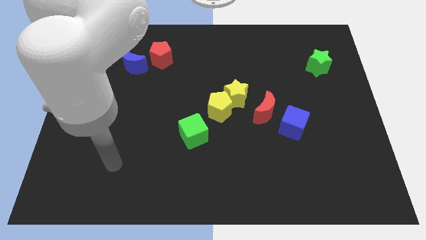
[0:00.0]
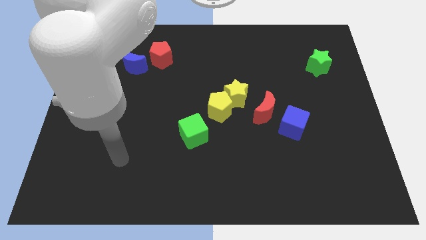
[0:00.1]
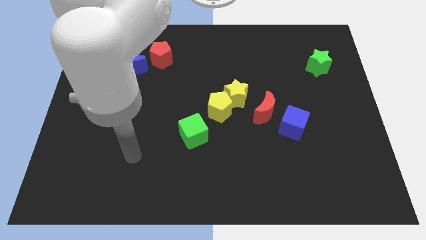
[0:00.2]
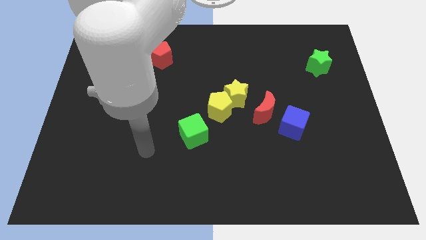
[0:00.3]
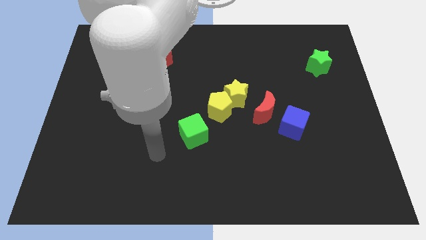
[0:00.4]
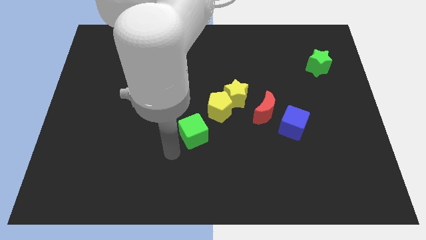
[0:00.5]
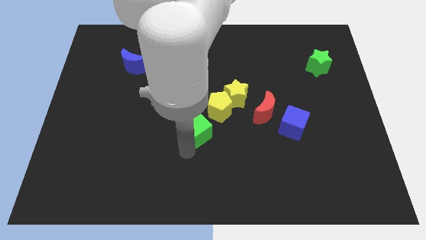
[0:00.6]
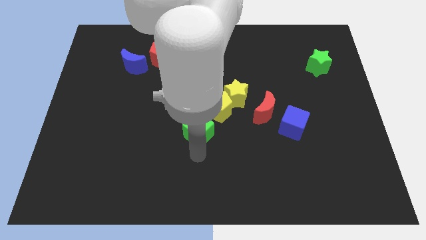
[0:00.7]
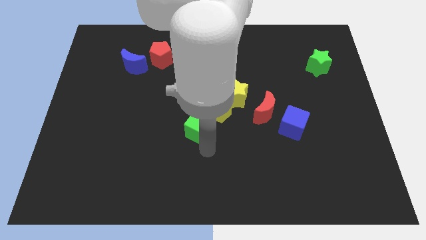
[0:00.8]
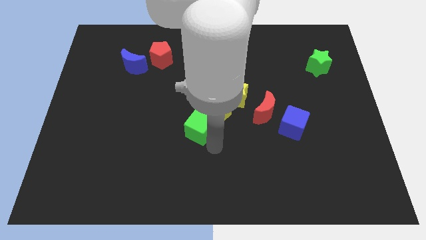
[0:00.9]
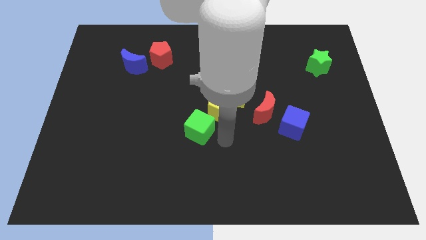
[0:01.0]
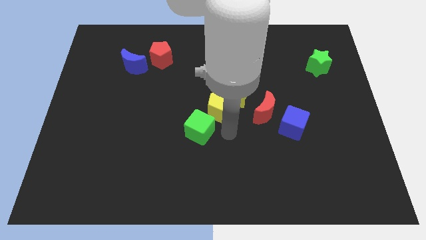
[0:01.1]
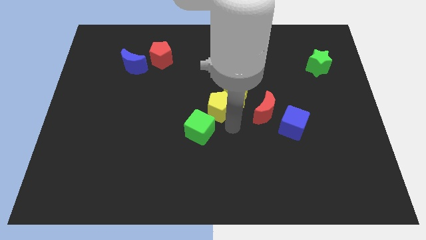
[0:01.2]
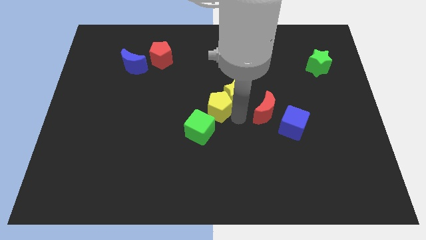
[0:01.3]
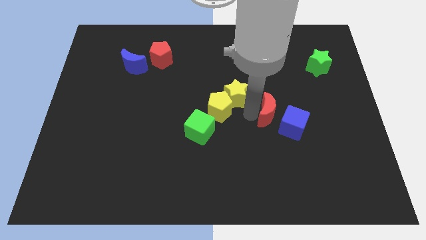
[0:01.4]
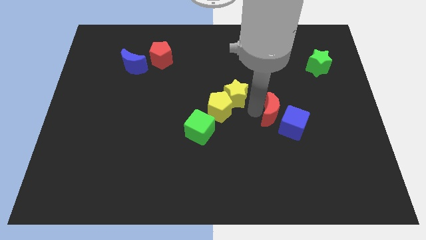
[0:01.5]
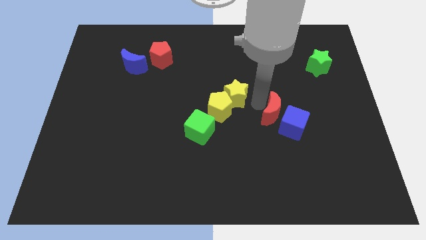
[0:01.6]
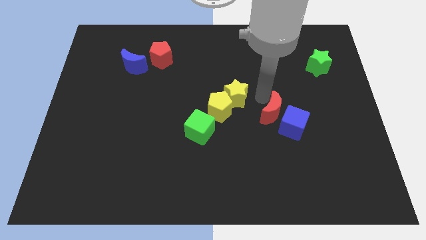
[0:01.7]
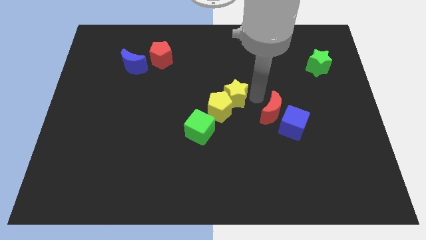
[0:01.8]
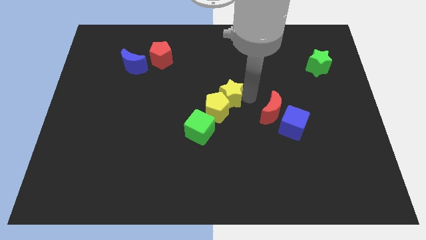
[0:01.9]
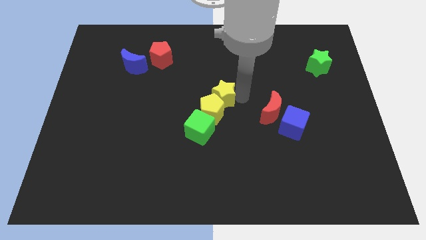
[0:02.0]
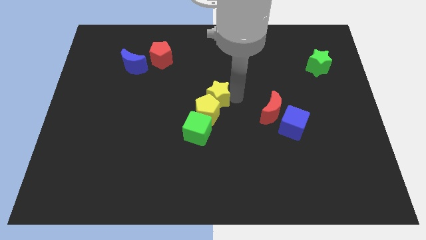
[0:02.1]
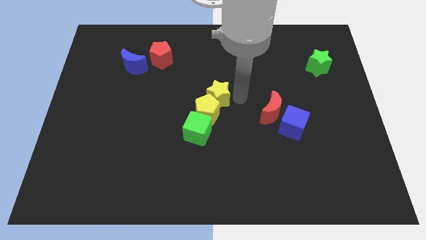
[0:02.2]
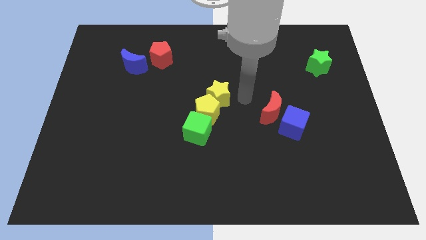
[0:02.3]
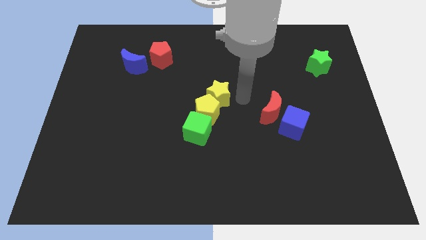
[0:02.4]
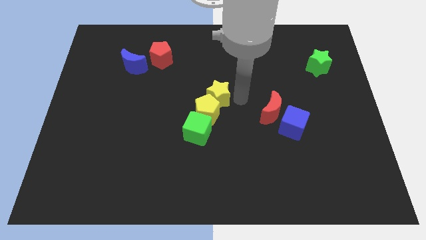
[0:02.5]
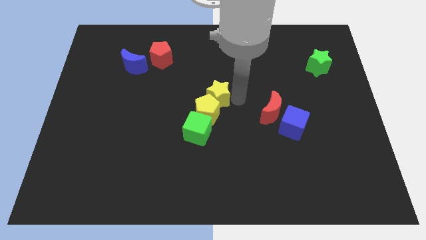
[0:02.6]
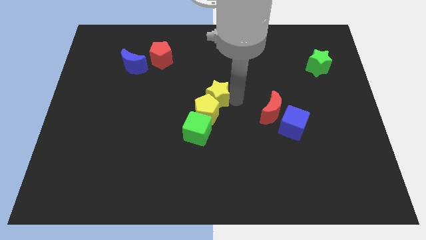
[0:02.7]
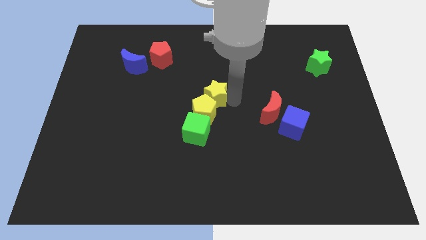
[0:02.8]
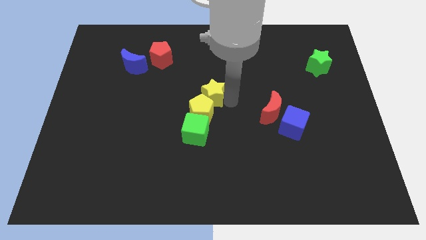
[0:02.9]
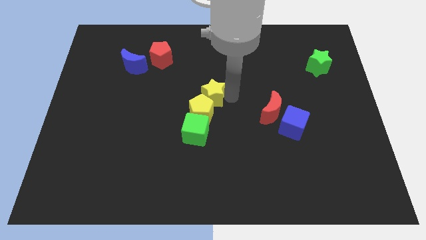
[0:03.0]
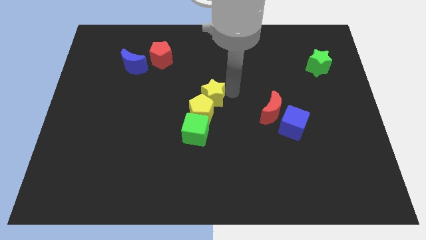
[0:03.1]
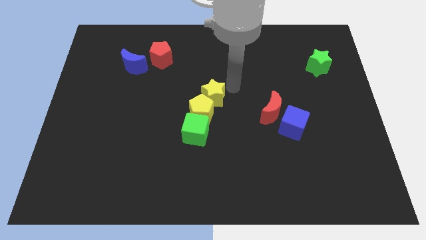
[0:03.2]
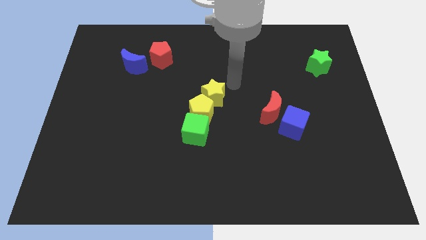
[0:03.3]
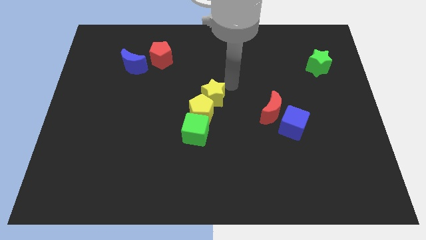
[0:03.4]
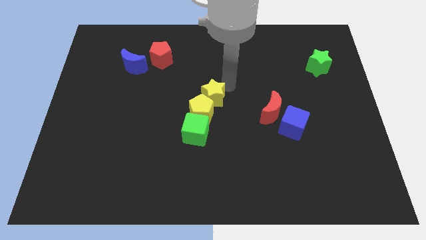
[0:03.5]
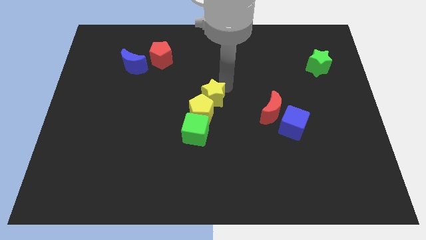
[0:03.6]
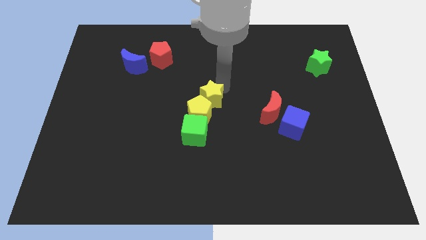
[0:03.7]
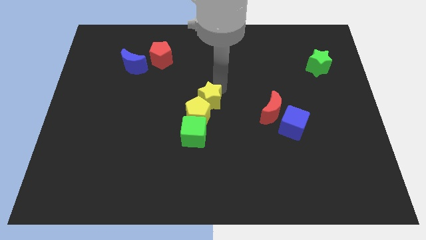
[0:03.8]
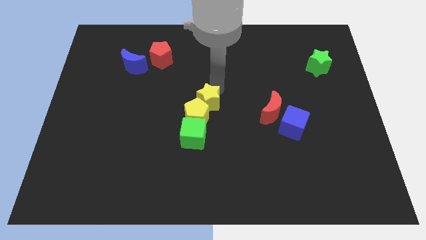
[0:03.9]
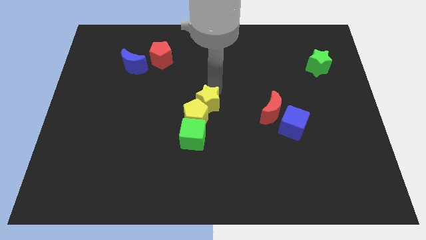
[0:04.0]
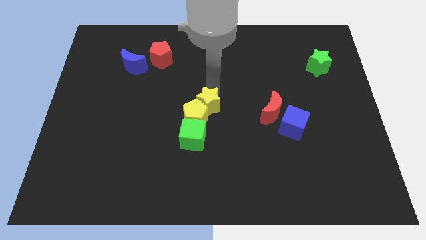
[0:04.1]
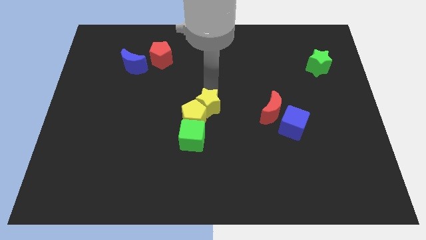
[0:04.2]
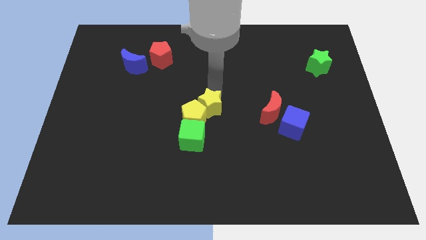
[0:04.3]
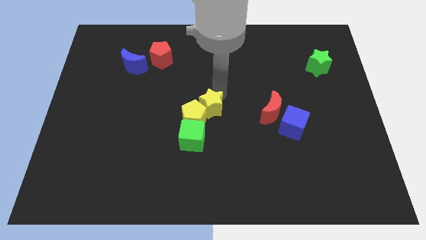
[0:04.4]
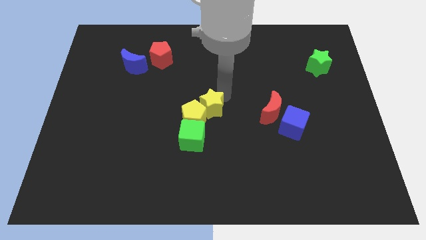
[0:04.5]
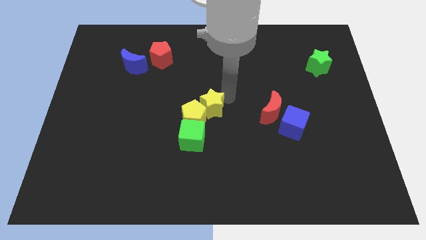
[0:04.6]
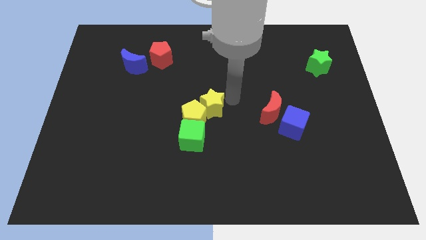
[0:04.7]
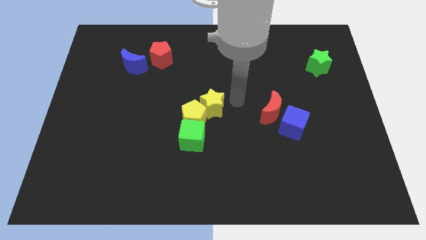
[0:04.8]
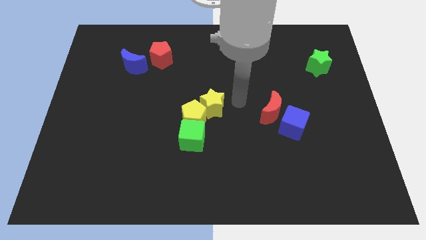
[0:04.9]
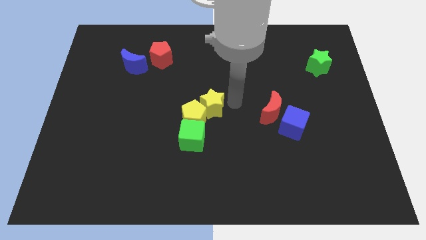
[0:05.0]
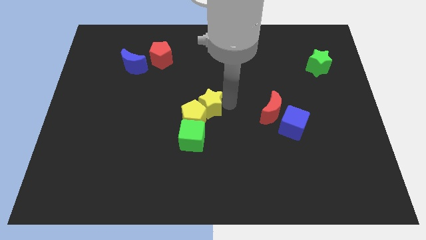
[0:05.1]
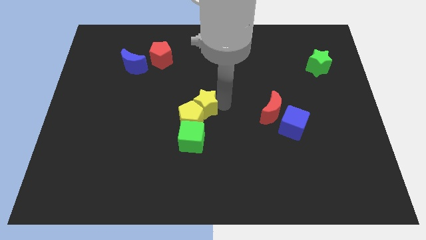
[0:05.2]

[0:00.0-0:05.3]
move the yellow star slightly diagonally down and left

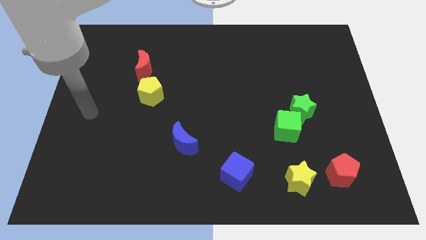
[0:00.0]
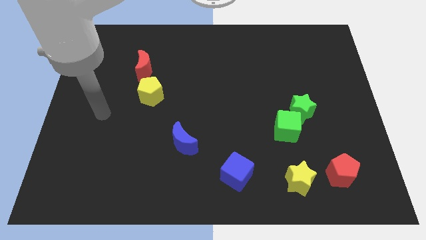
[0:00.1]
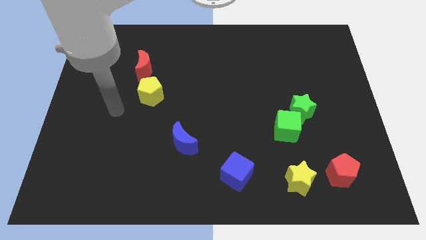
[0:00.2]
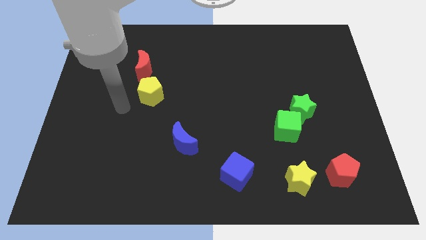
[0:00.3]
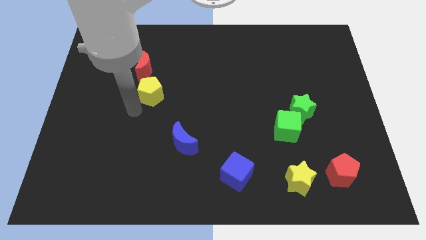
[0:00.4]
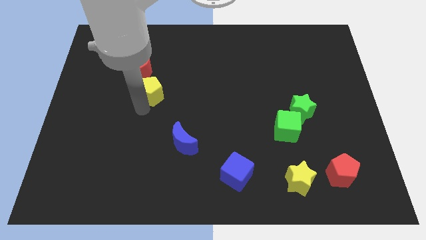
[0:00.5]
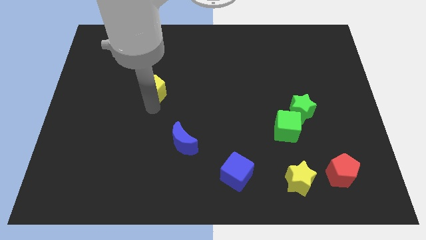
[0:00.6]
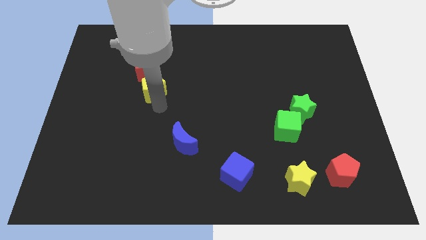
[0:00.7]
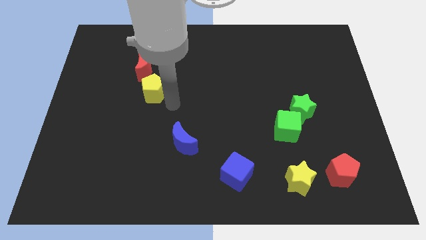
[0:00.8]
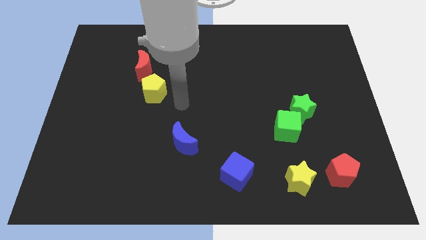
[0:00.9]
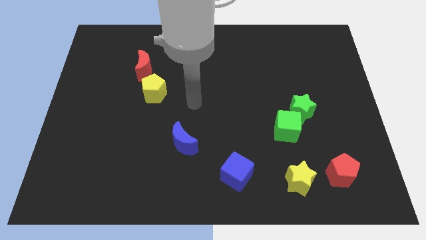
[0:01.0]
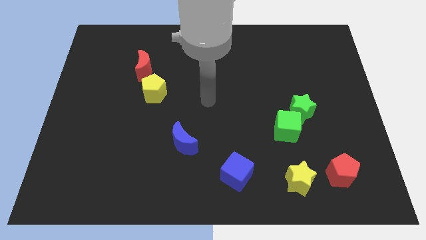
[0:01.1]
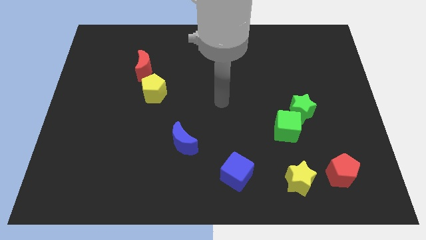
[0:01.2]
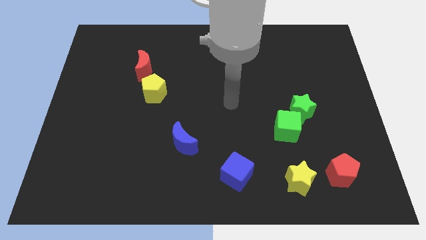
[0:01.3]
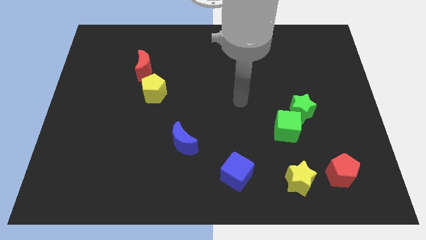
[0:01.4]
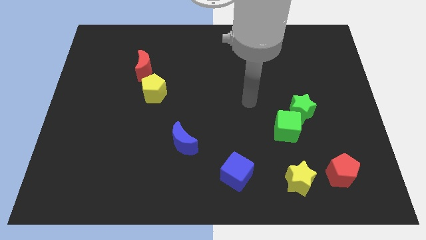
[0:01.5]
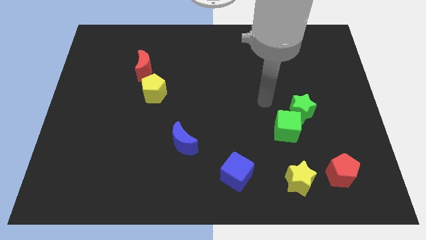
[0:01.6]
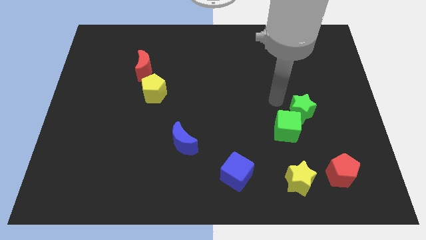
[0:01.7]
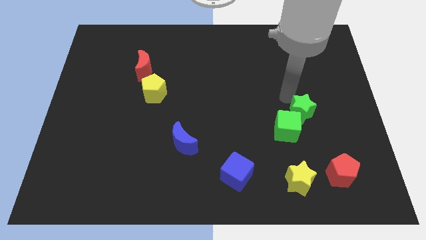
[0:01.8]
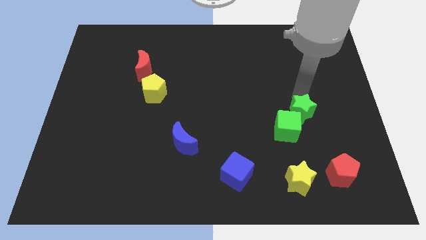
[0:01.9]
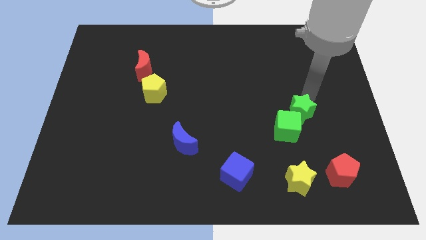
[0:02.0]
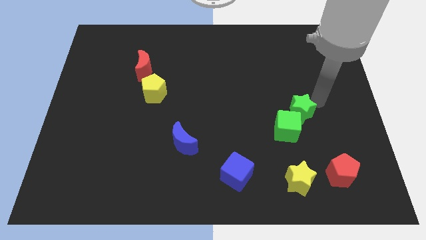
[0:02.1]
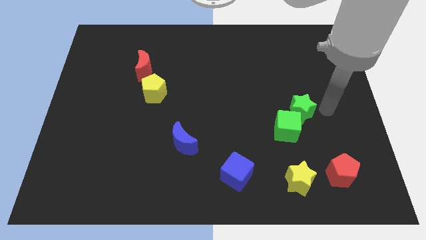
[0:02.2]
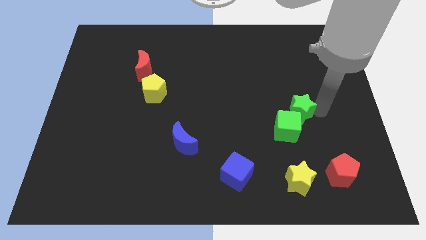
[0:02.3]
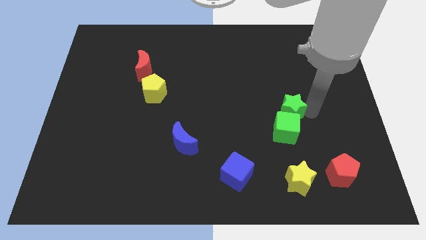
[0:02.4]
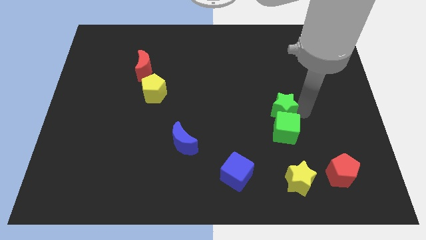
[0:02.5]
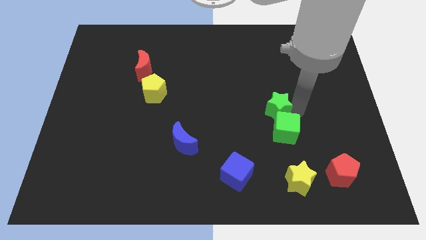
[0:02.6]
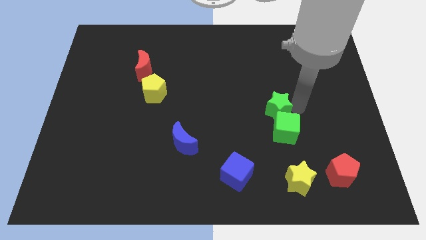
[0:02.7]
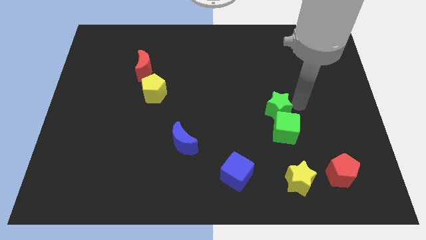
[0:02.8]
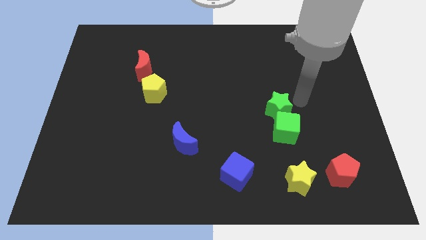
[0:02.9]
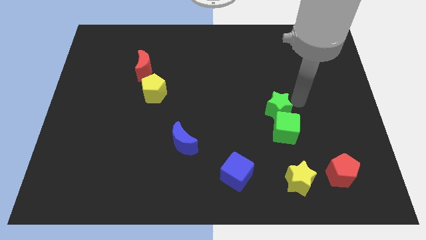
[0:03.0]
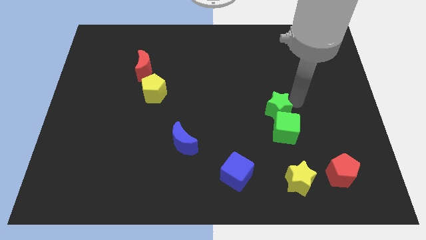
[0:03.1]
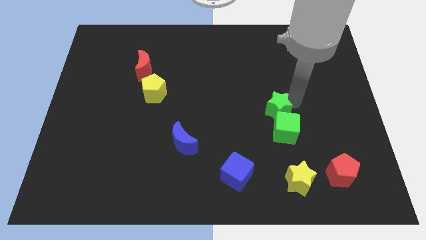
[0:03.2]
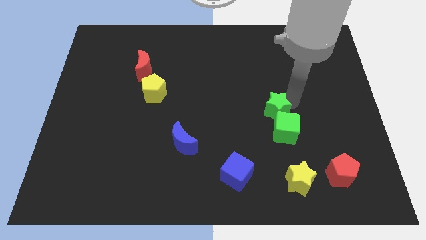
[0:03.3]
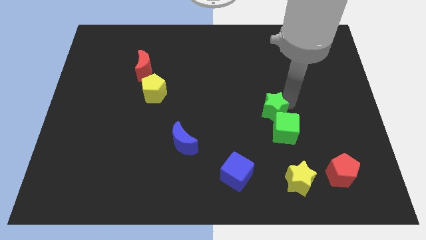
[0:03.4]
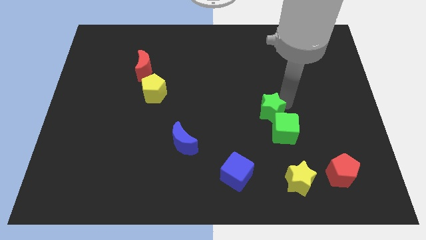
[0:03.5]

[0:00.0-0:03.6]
slide the green star left a little bit
